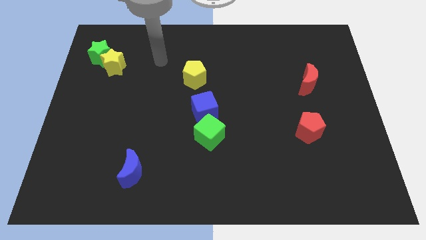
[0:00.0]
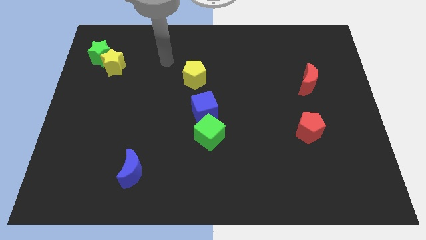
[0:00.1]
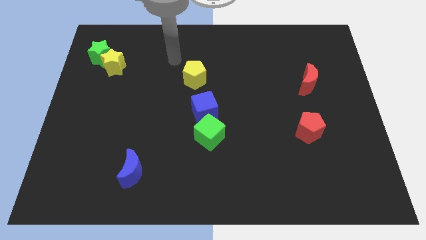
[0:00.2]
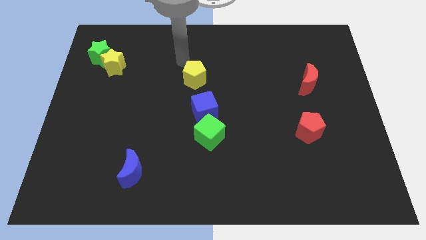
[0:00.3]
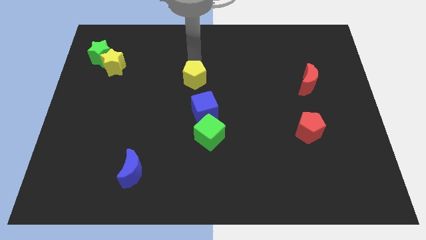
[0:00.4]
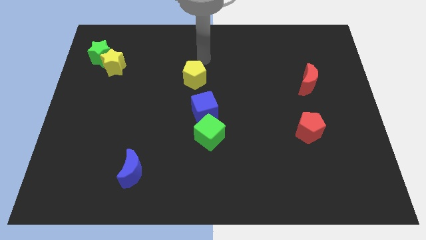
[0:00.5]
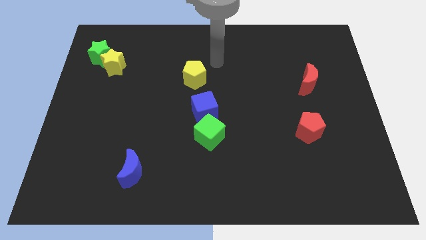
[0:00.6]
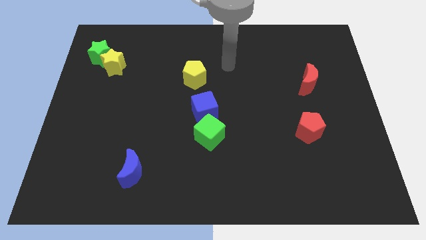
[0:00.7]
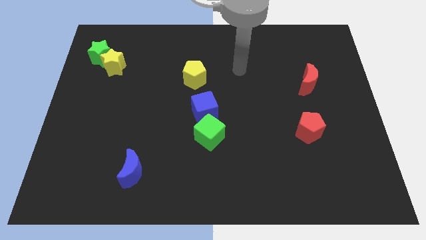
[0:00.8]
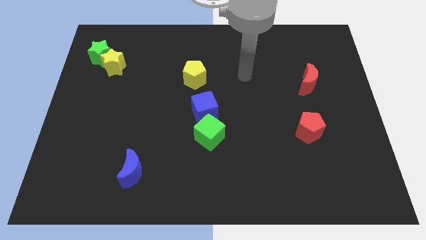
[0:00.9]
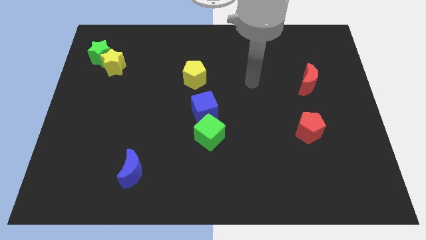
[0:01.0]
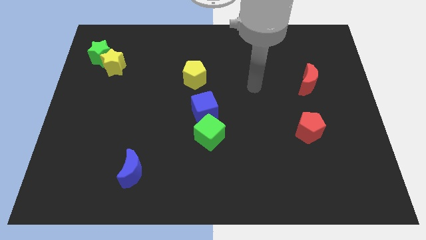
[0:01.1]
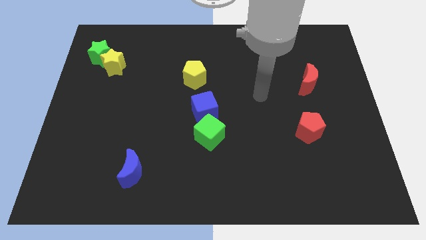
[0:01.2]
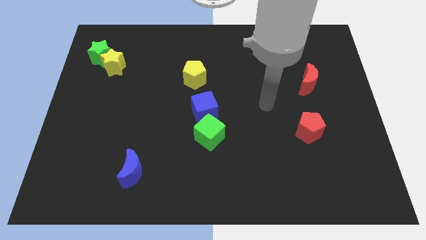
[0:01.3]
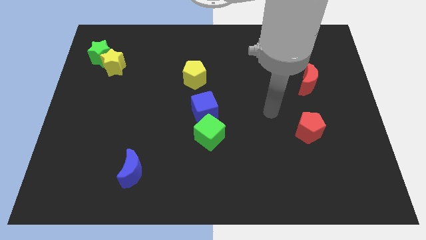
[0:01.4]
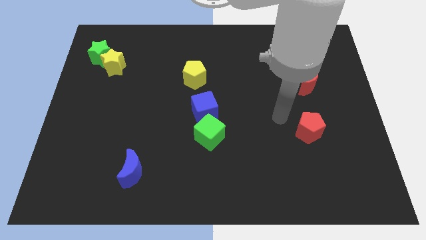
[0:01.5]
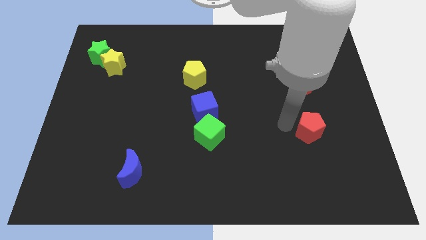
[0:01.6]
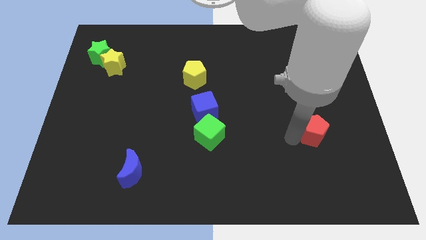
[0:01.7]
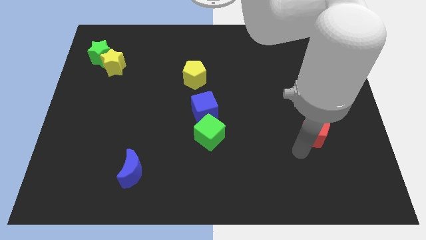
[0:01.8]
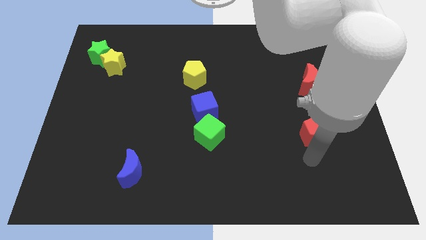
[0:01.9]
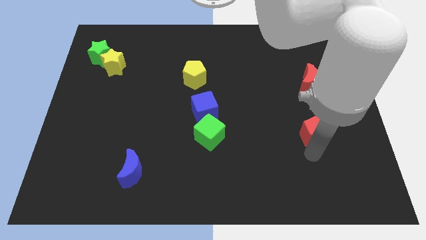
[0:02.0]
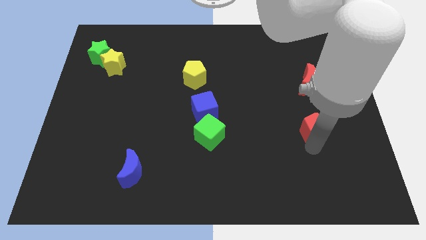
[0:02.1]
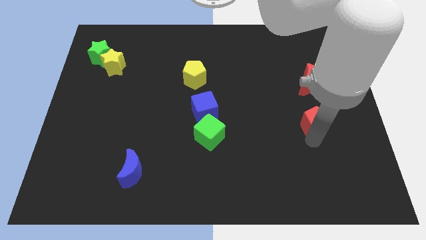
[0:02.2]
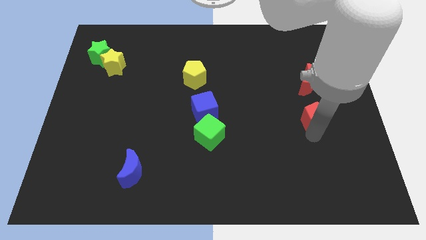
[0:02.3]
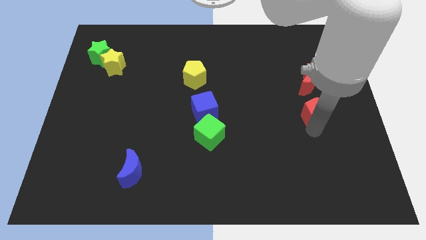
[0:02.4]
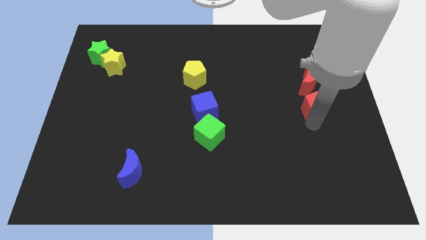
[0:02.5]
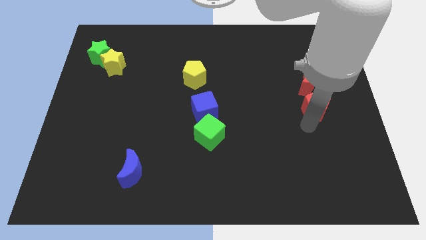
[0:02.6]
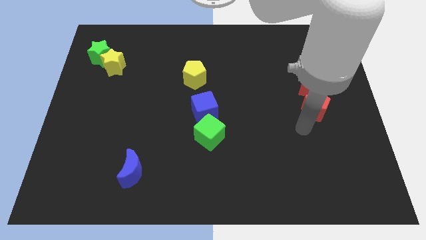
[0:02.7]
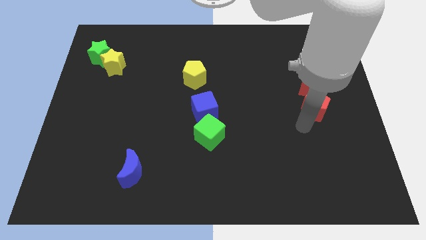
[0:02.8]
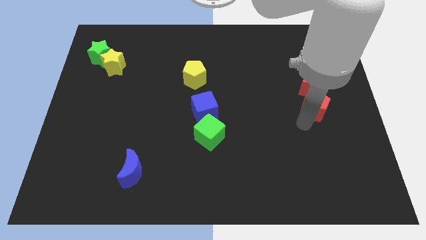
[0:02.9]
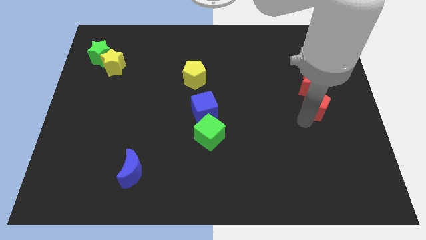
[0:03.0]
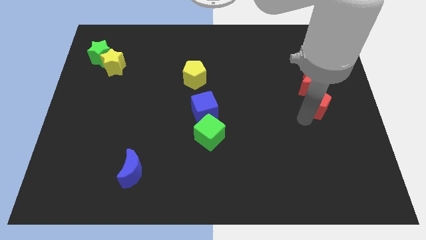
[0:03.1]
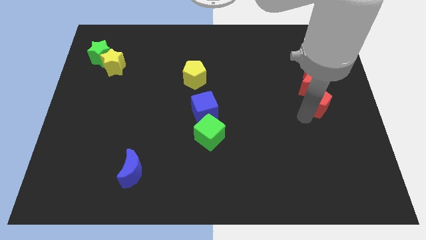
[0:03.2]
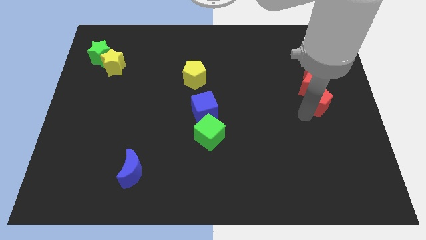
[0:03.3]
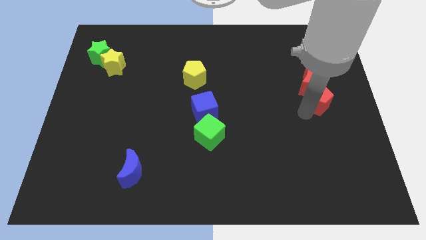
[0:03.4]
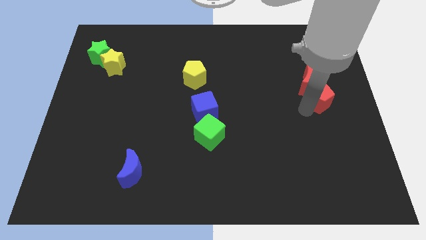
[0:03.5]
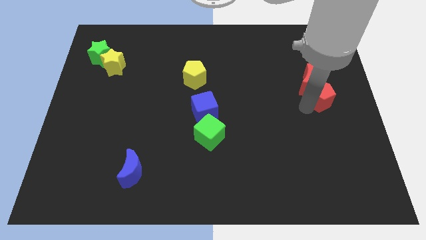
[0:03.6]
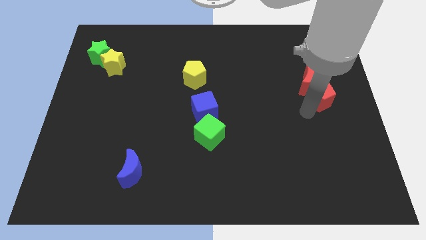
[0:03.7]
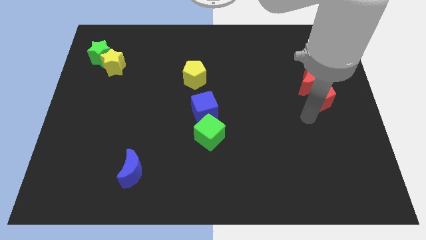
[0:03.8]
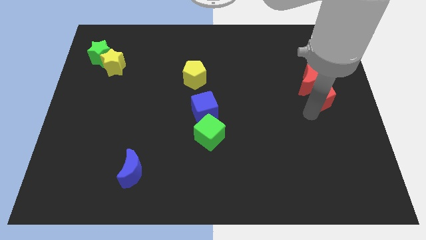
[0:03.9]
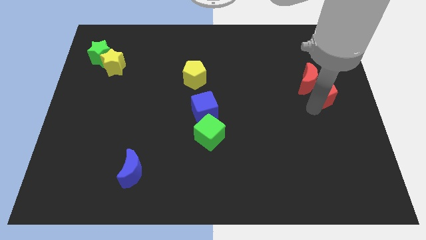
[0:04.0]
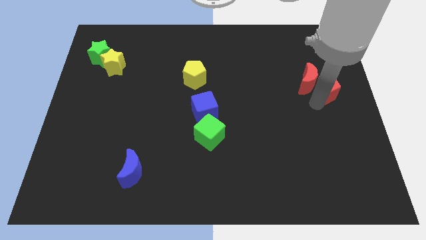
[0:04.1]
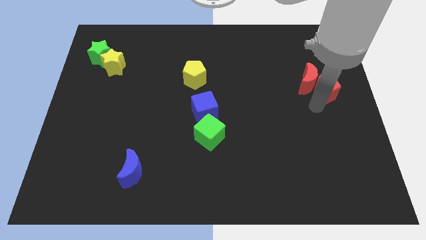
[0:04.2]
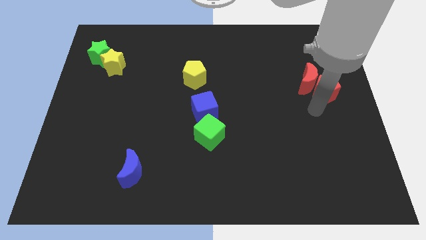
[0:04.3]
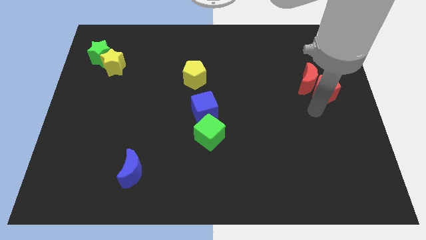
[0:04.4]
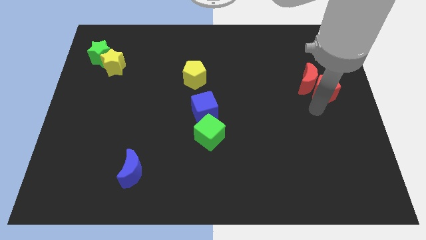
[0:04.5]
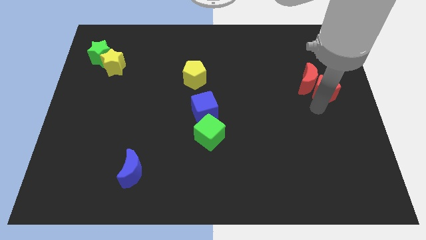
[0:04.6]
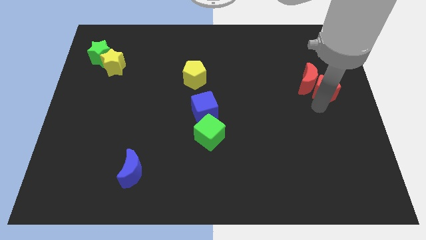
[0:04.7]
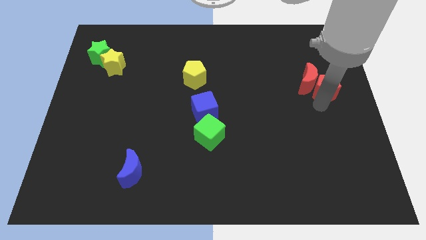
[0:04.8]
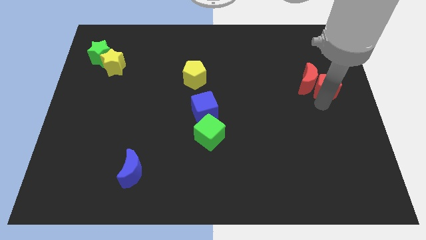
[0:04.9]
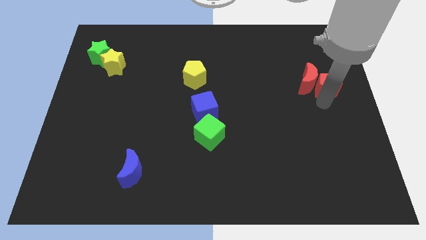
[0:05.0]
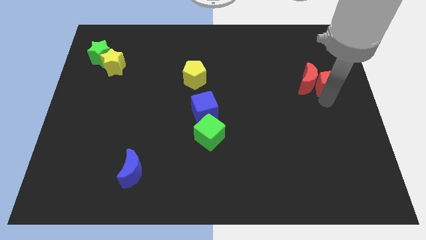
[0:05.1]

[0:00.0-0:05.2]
push the red pentagon to the top right of the red moon

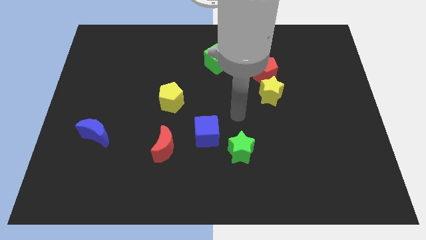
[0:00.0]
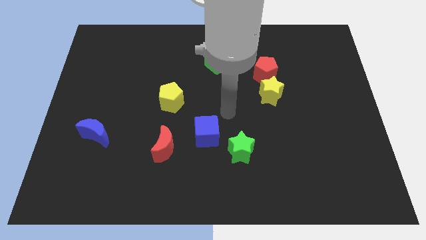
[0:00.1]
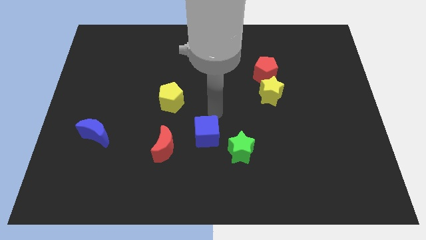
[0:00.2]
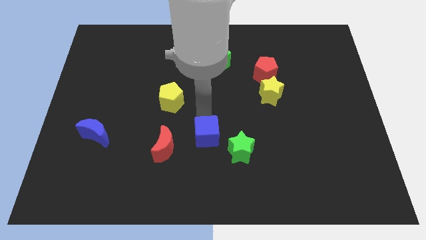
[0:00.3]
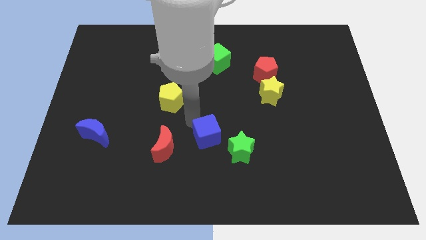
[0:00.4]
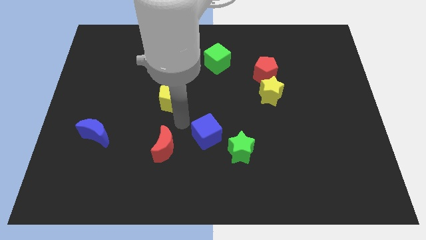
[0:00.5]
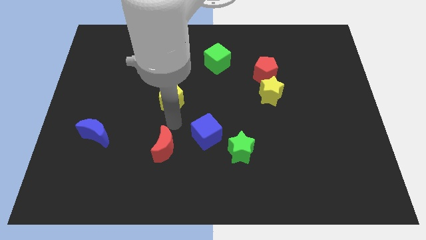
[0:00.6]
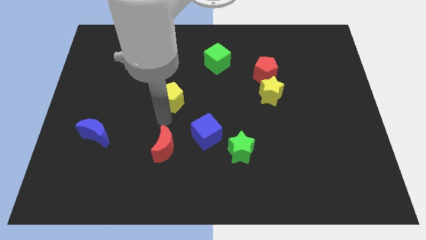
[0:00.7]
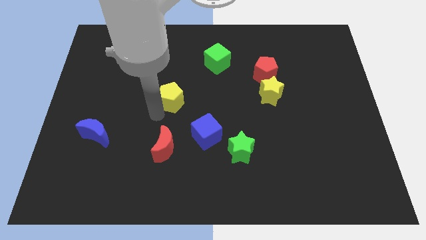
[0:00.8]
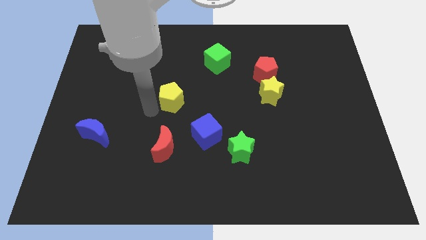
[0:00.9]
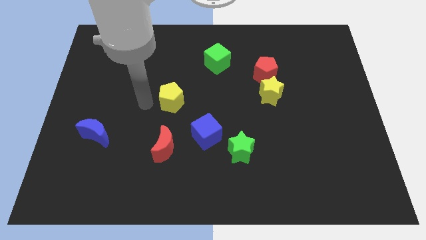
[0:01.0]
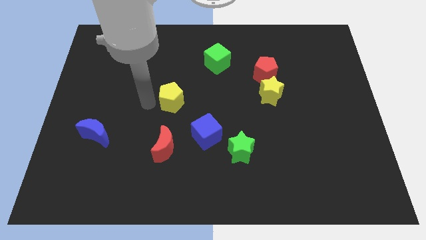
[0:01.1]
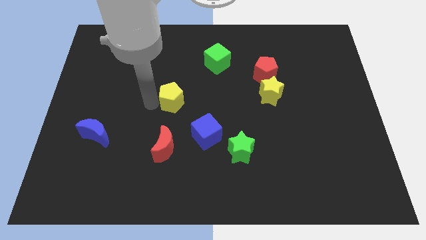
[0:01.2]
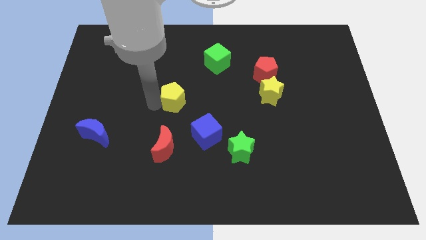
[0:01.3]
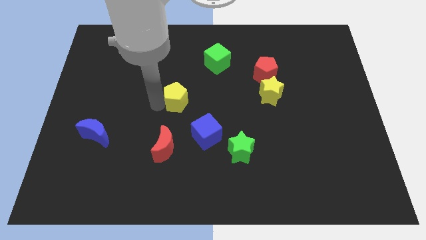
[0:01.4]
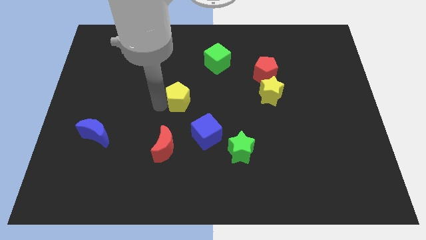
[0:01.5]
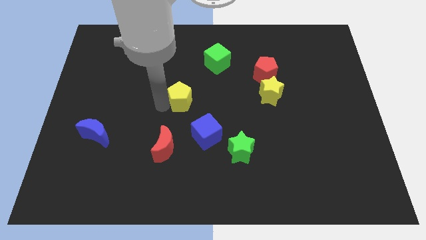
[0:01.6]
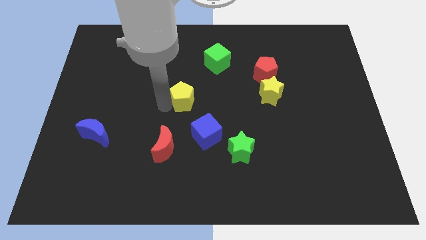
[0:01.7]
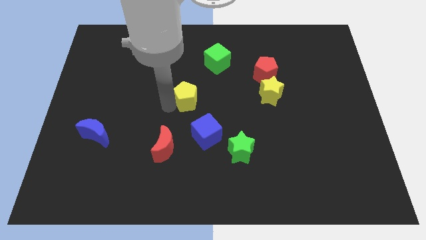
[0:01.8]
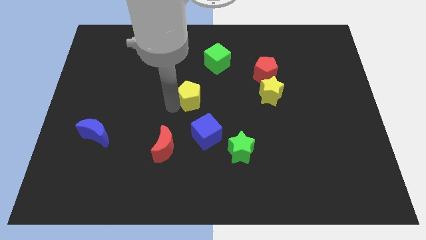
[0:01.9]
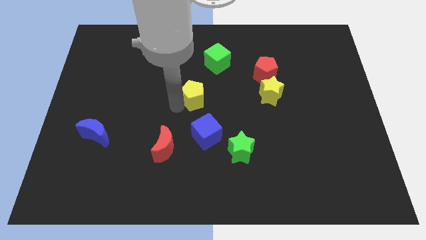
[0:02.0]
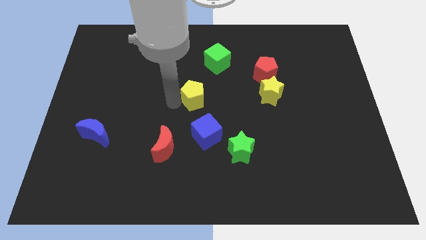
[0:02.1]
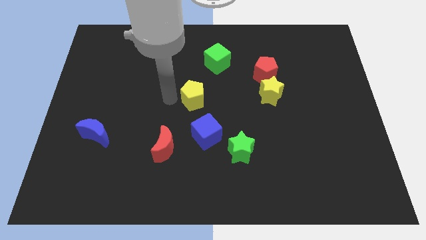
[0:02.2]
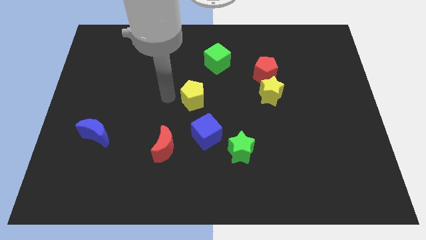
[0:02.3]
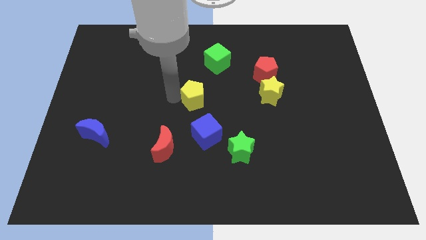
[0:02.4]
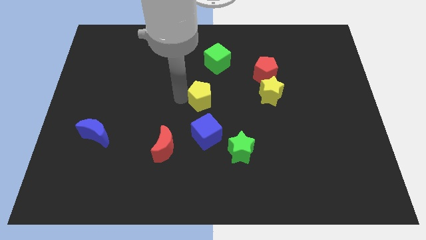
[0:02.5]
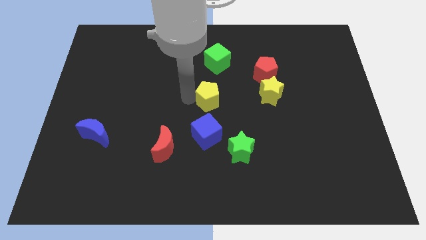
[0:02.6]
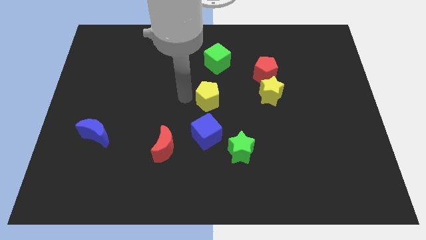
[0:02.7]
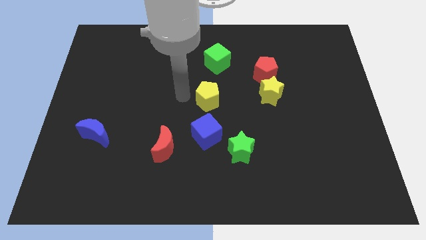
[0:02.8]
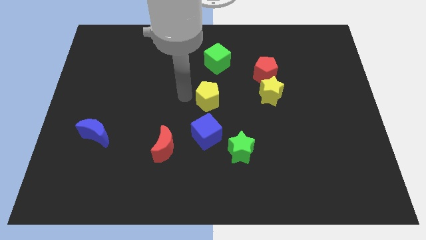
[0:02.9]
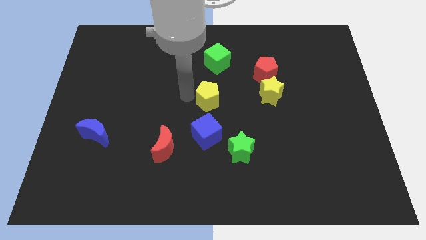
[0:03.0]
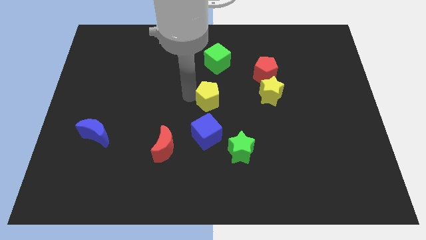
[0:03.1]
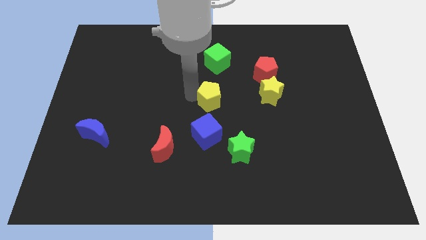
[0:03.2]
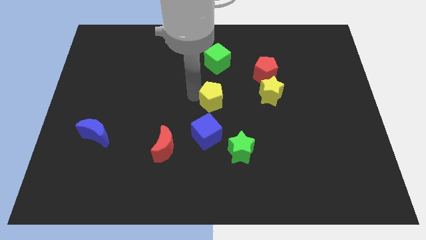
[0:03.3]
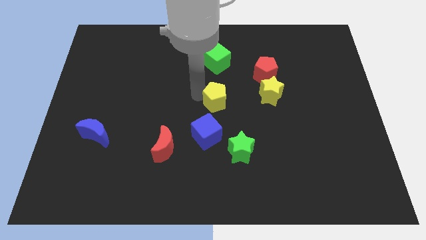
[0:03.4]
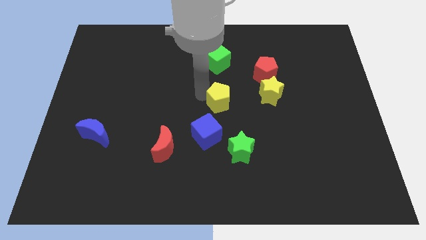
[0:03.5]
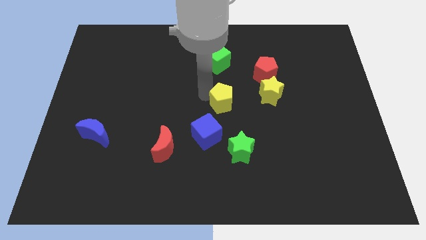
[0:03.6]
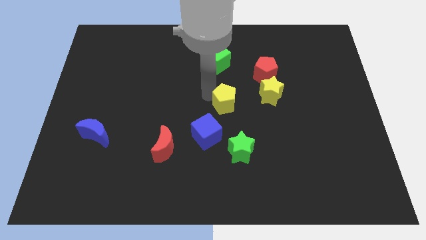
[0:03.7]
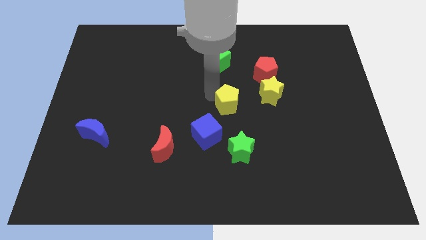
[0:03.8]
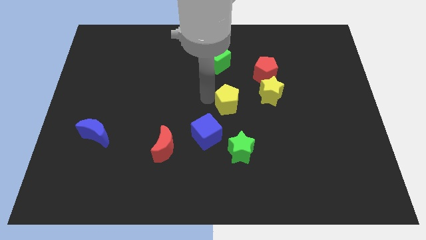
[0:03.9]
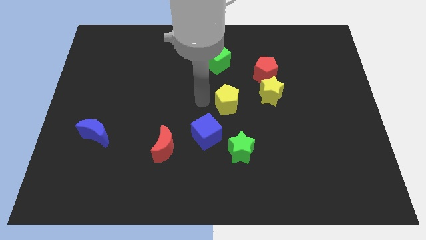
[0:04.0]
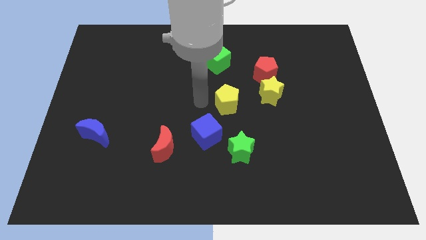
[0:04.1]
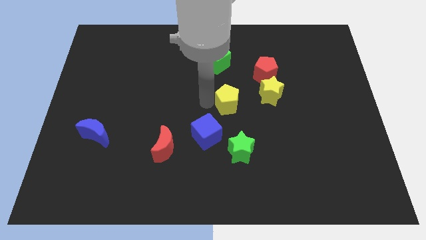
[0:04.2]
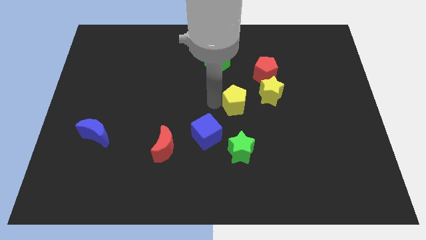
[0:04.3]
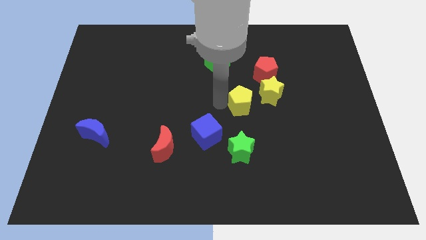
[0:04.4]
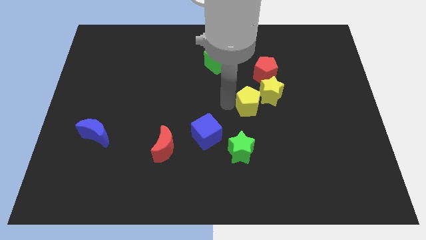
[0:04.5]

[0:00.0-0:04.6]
push the yellow pentagon to the bottom of the red pentagon
